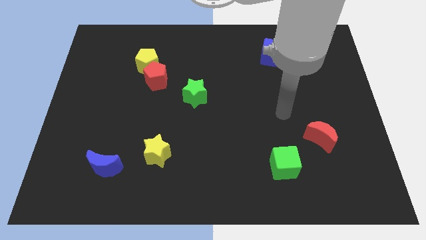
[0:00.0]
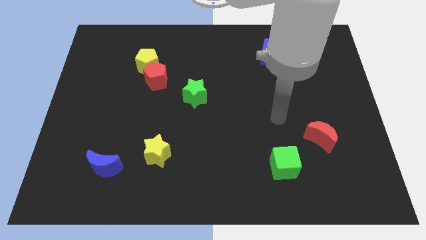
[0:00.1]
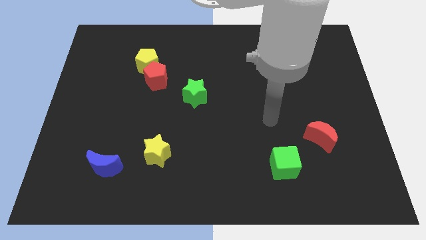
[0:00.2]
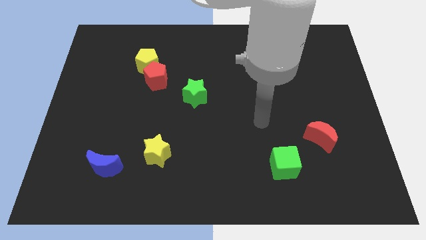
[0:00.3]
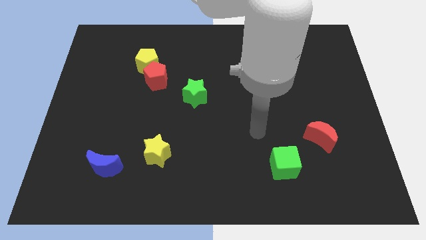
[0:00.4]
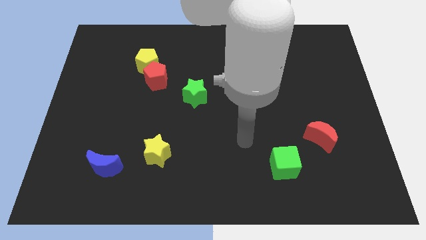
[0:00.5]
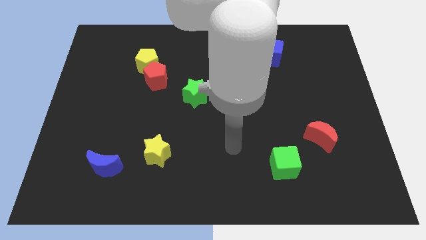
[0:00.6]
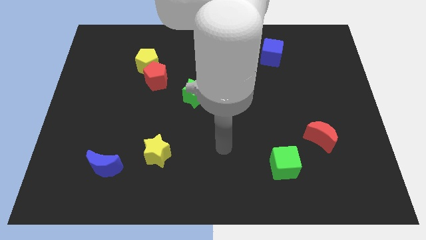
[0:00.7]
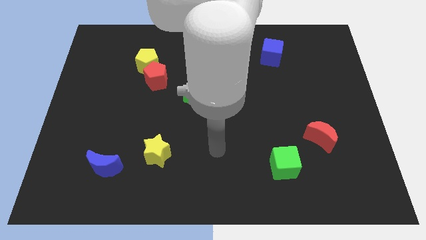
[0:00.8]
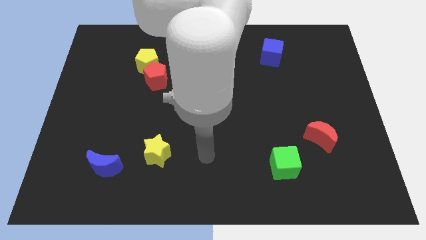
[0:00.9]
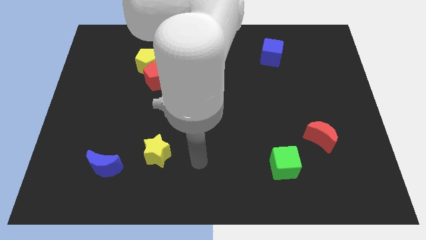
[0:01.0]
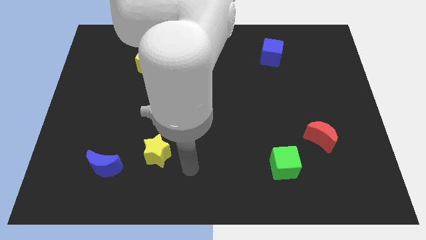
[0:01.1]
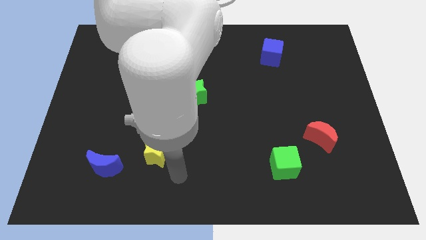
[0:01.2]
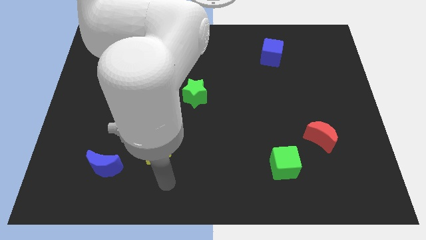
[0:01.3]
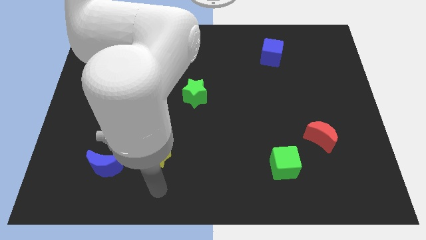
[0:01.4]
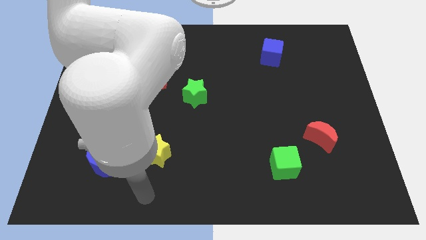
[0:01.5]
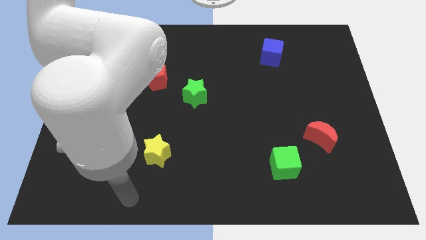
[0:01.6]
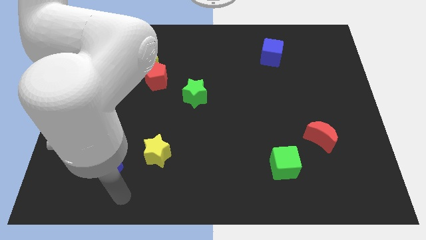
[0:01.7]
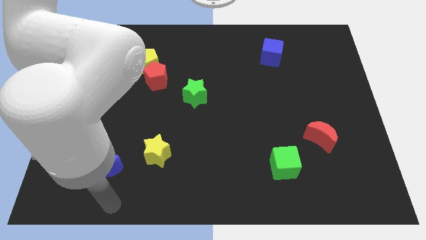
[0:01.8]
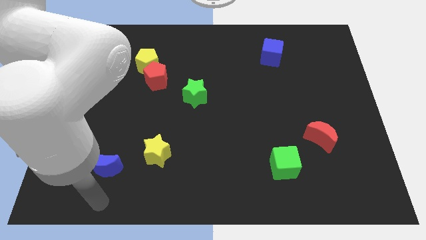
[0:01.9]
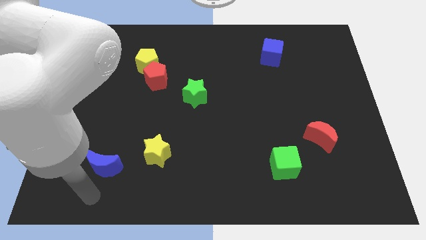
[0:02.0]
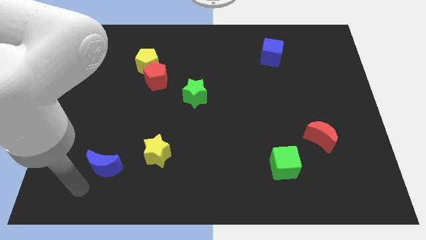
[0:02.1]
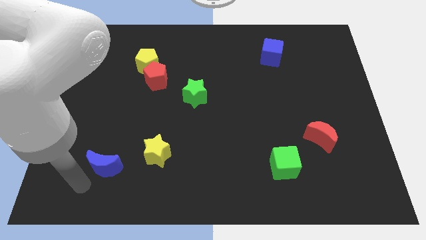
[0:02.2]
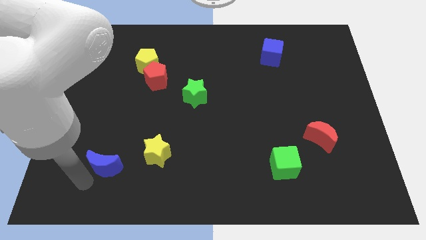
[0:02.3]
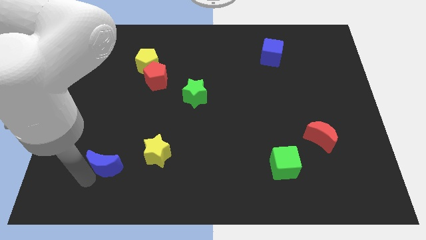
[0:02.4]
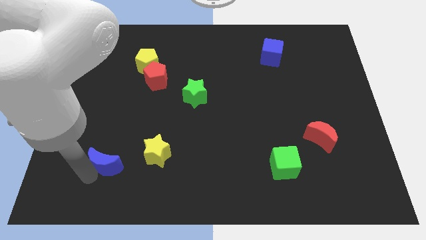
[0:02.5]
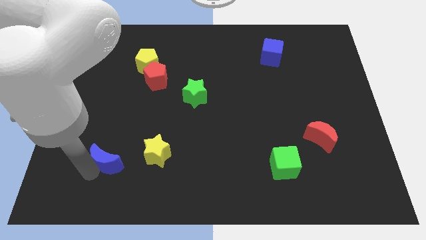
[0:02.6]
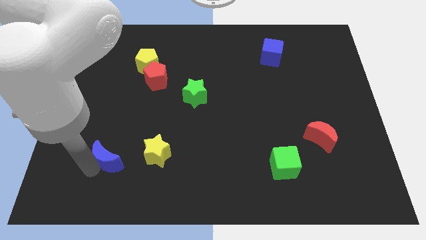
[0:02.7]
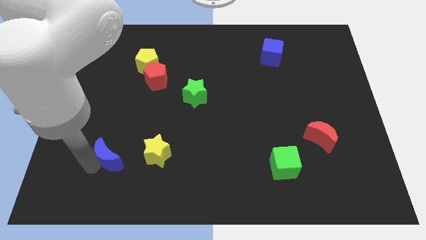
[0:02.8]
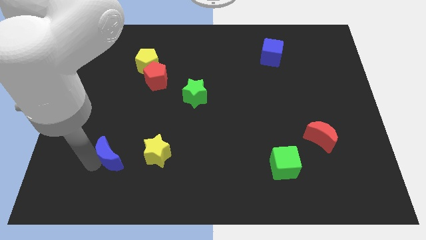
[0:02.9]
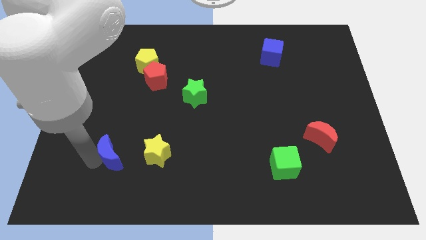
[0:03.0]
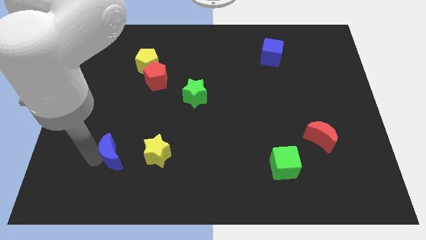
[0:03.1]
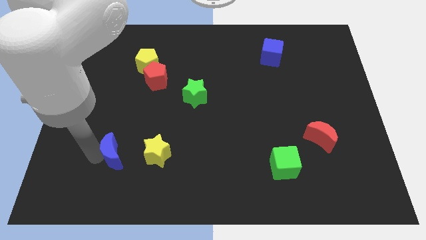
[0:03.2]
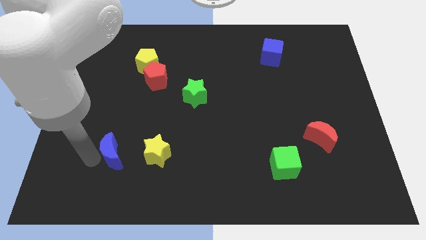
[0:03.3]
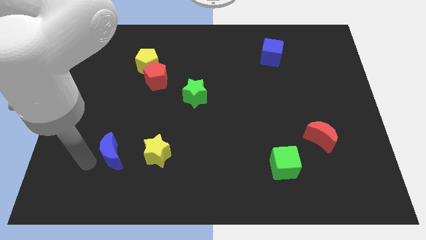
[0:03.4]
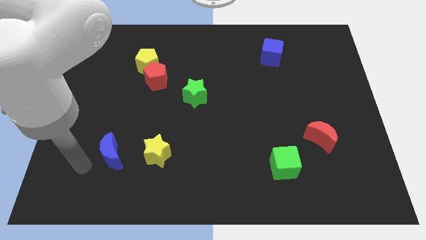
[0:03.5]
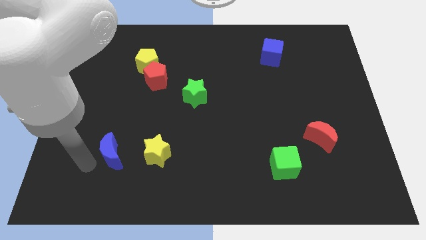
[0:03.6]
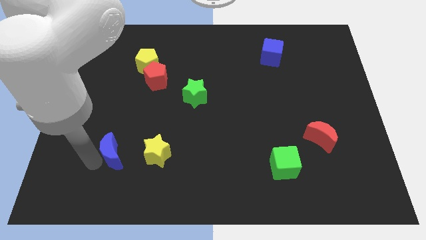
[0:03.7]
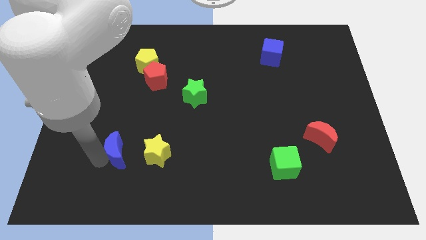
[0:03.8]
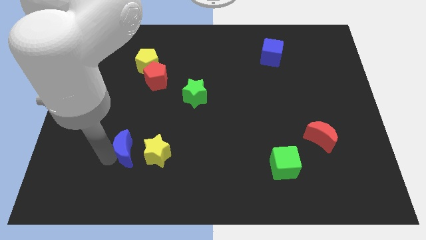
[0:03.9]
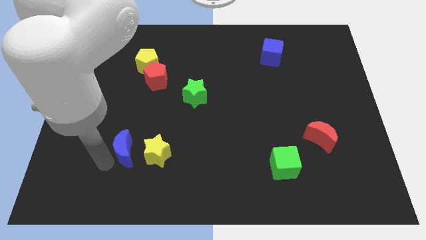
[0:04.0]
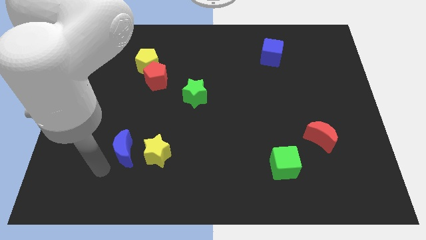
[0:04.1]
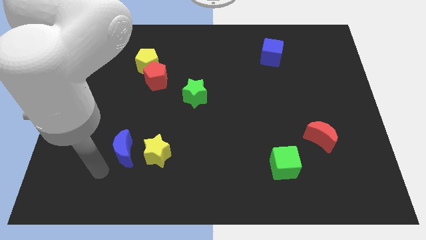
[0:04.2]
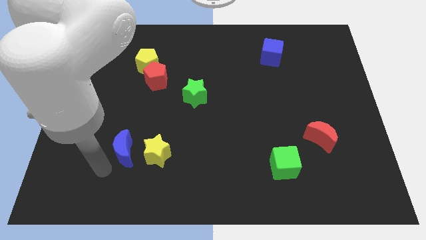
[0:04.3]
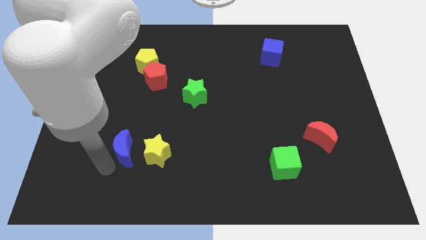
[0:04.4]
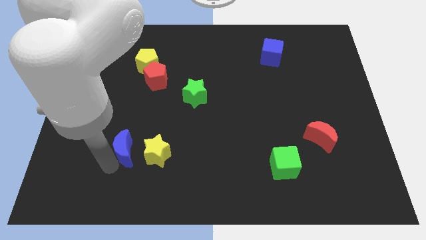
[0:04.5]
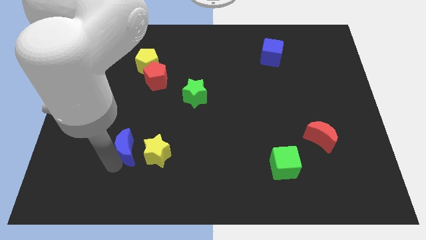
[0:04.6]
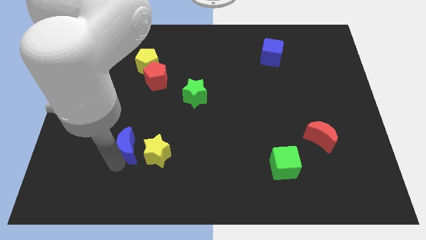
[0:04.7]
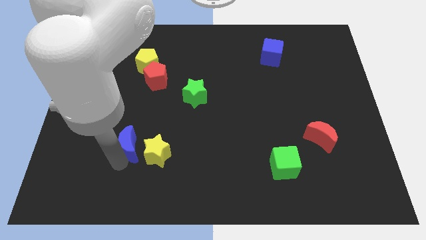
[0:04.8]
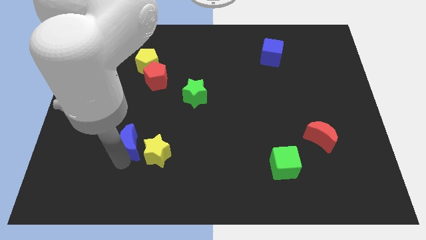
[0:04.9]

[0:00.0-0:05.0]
push the blue moon up and right slightly

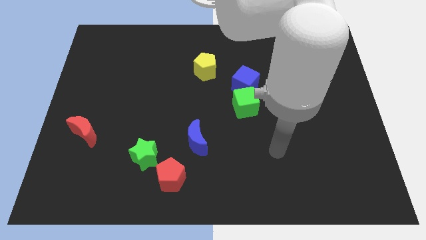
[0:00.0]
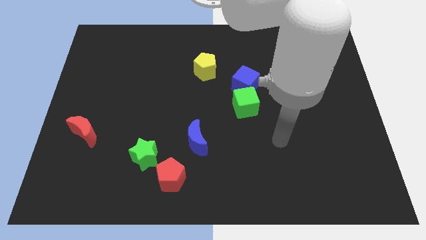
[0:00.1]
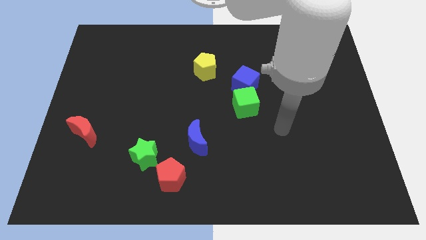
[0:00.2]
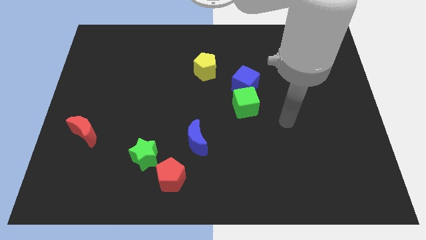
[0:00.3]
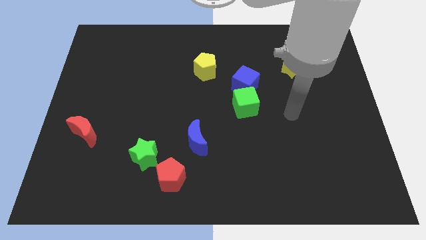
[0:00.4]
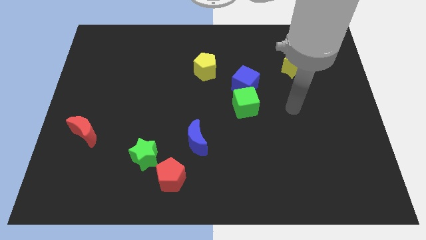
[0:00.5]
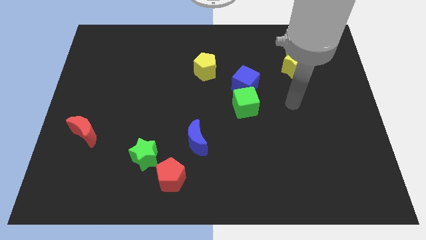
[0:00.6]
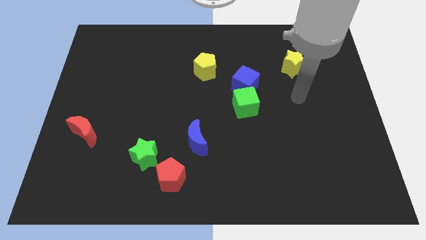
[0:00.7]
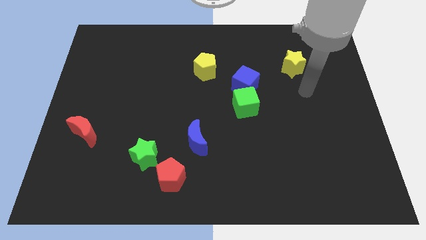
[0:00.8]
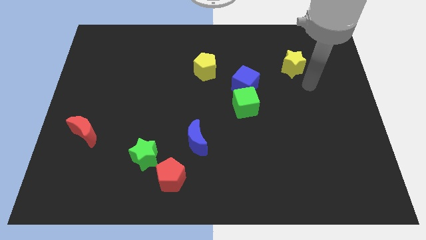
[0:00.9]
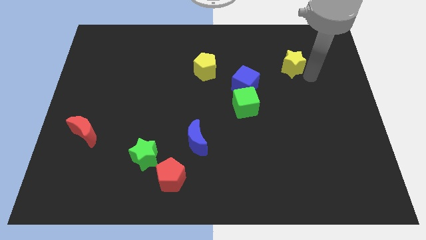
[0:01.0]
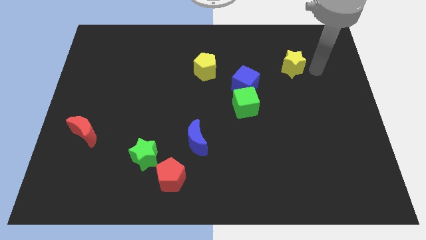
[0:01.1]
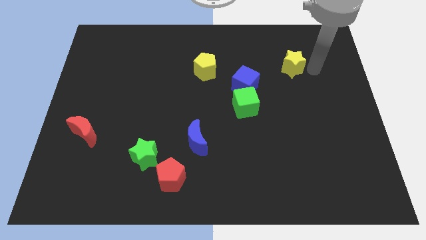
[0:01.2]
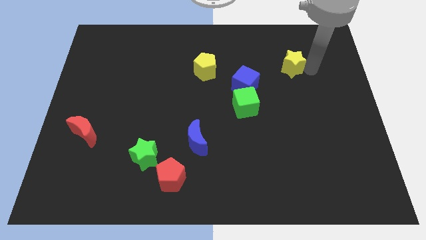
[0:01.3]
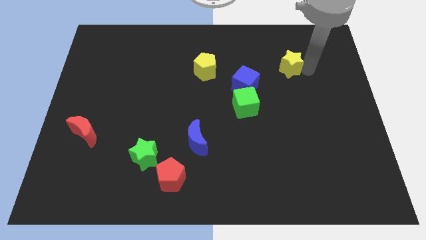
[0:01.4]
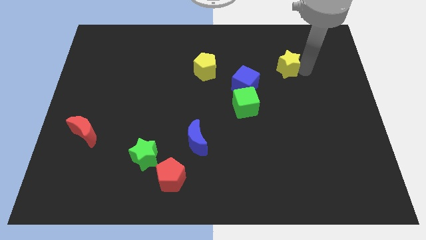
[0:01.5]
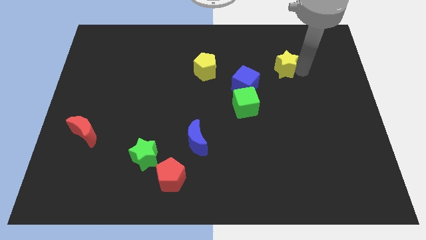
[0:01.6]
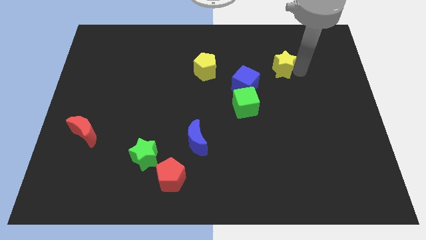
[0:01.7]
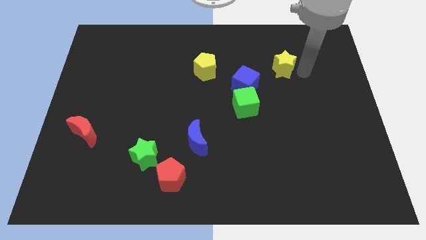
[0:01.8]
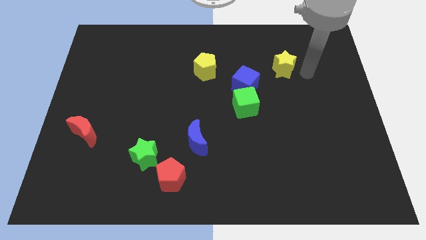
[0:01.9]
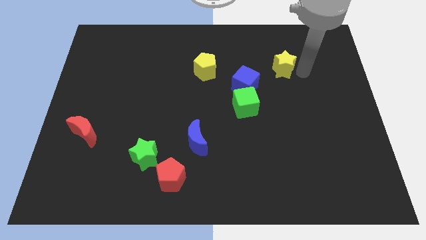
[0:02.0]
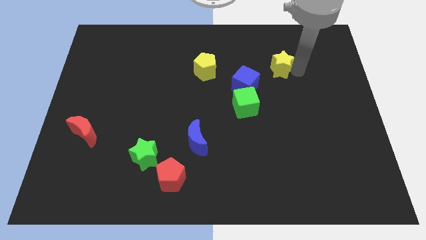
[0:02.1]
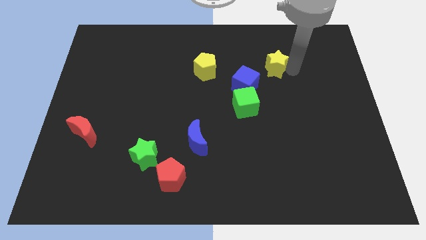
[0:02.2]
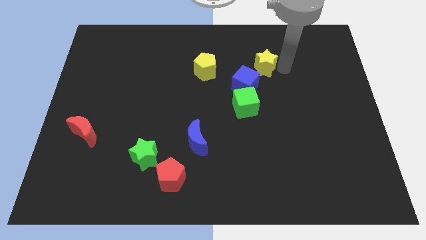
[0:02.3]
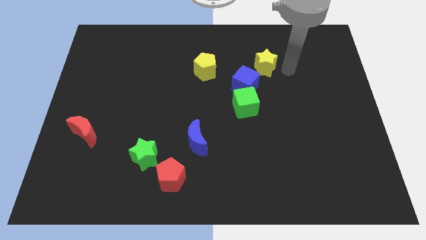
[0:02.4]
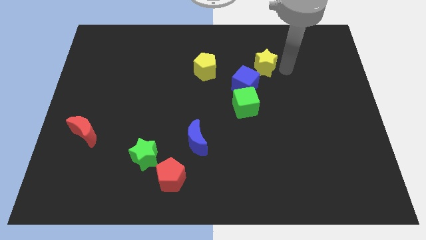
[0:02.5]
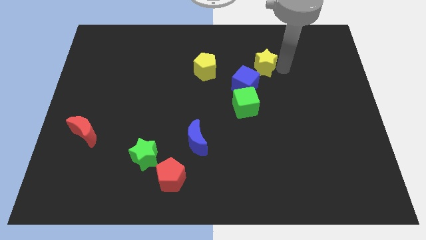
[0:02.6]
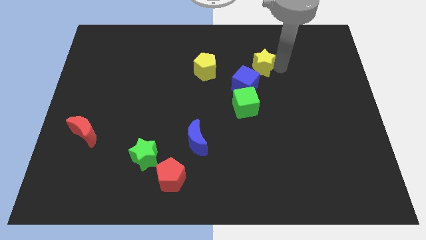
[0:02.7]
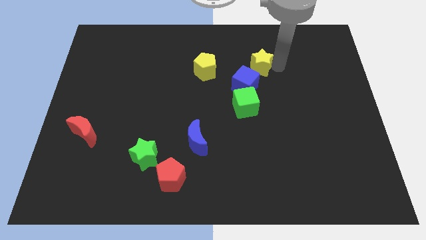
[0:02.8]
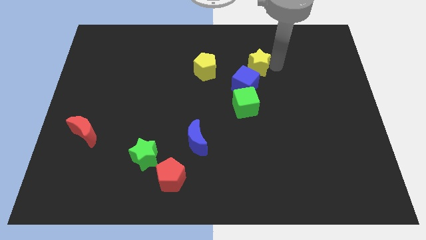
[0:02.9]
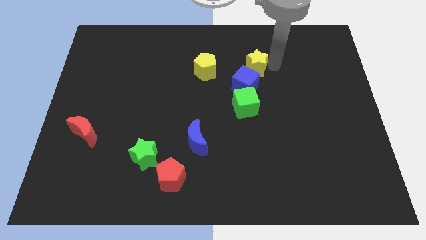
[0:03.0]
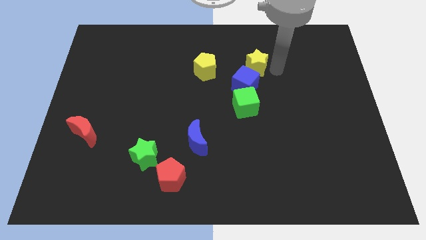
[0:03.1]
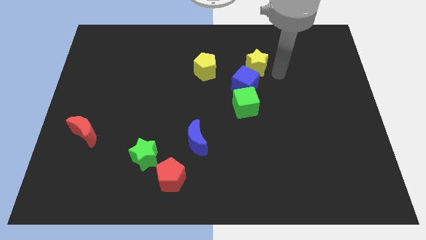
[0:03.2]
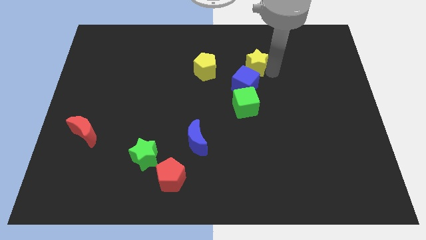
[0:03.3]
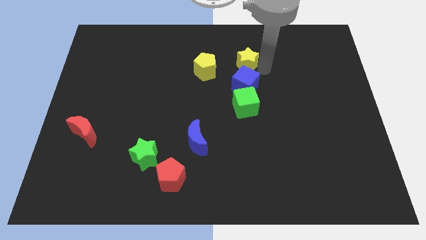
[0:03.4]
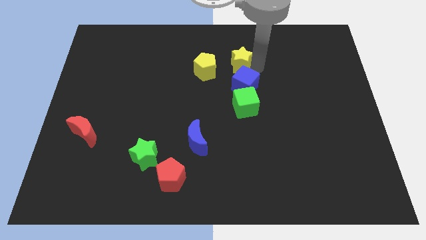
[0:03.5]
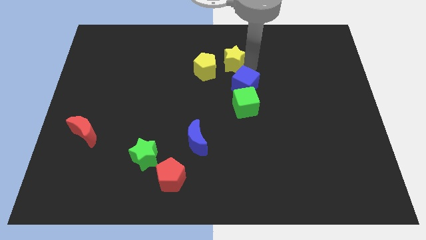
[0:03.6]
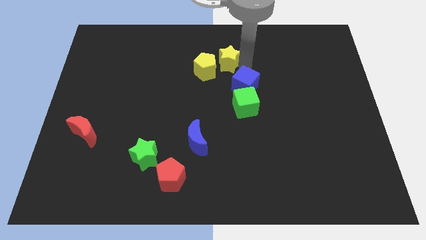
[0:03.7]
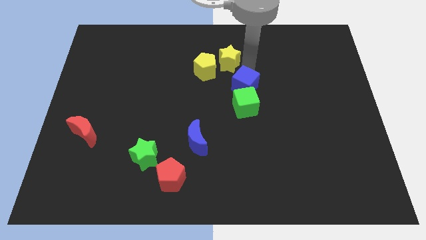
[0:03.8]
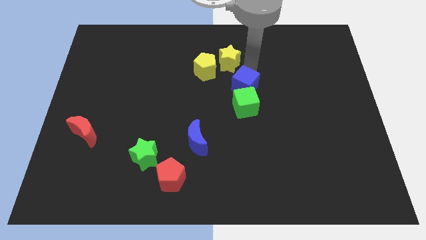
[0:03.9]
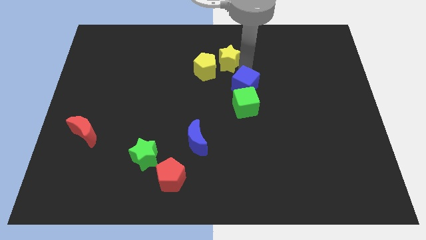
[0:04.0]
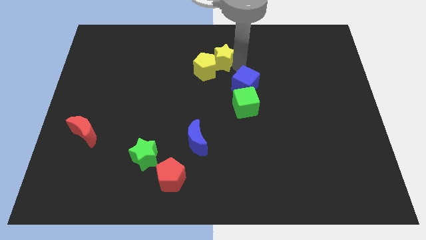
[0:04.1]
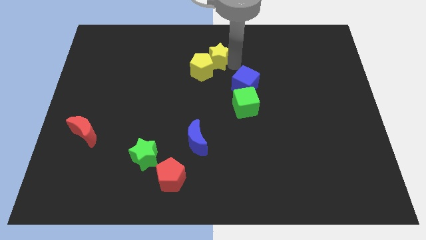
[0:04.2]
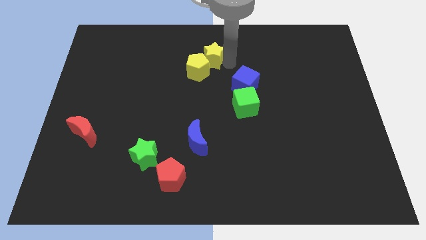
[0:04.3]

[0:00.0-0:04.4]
move the yellow star left
